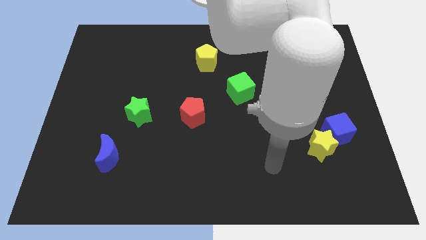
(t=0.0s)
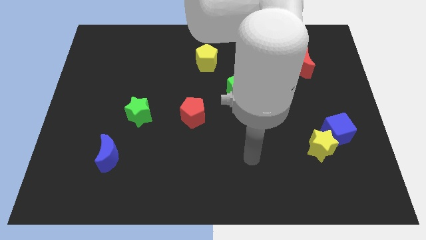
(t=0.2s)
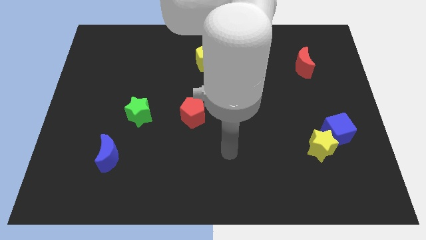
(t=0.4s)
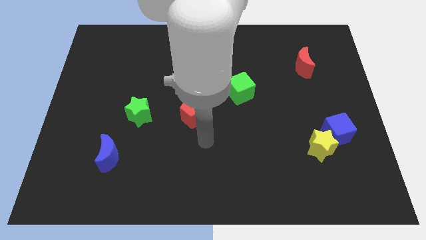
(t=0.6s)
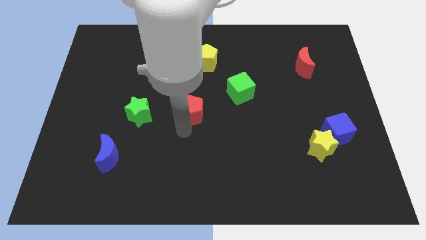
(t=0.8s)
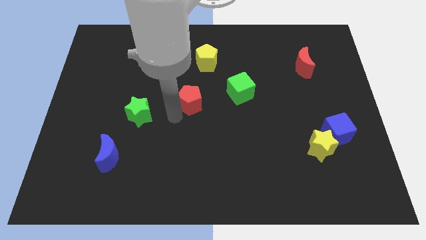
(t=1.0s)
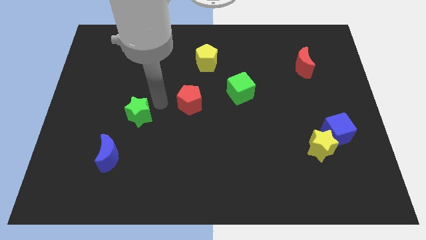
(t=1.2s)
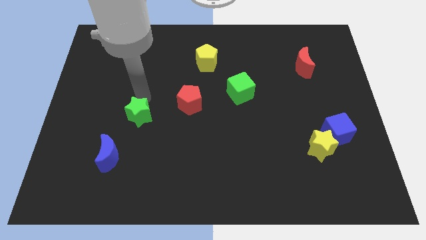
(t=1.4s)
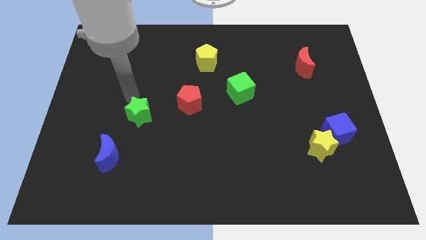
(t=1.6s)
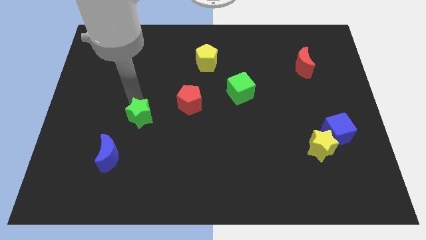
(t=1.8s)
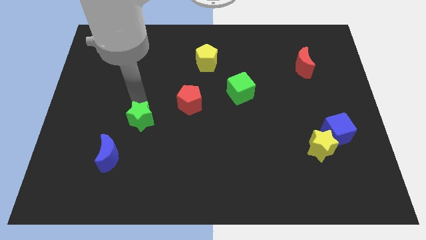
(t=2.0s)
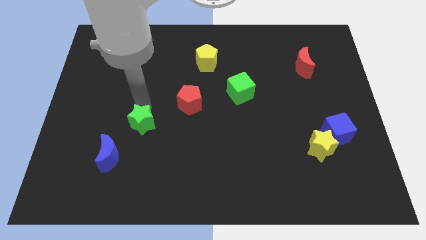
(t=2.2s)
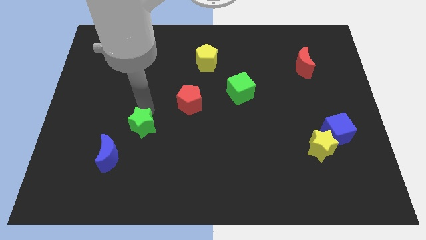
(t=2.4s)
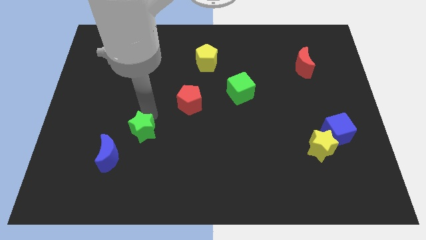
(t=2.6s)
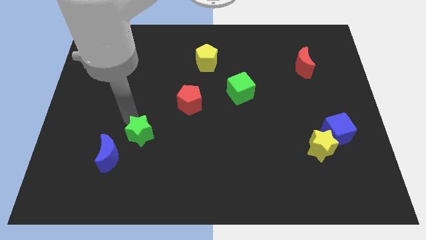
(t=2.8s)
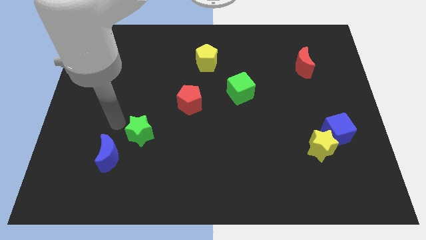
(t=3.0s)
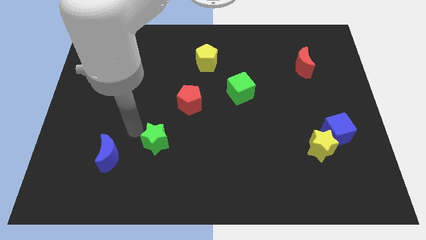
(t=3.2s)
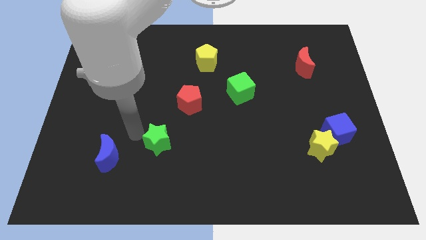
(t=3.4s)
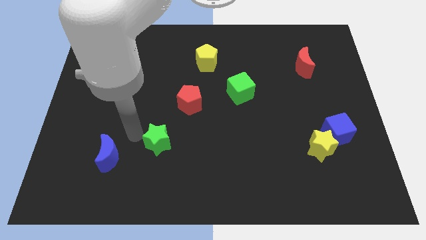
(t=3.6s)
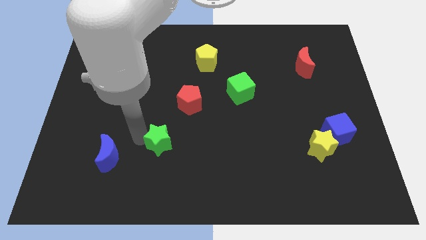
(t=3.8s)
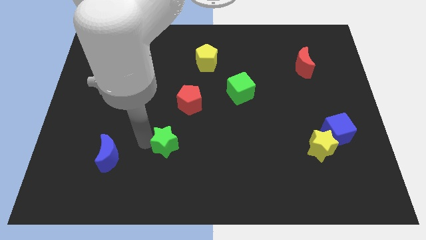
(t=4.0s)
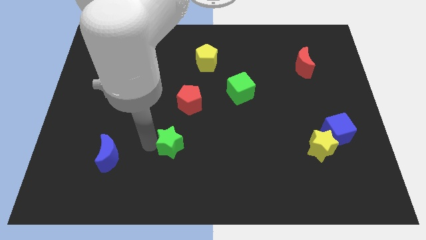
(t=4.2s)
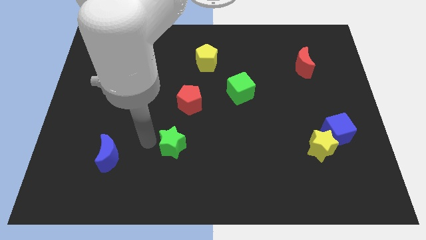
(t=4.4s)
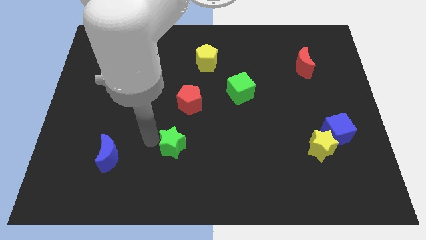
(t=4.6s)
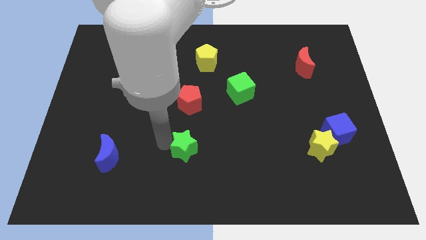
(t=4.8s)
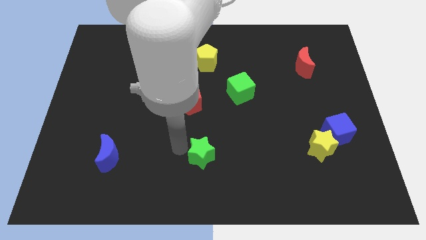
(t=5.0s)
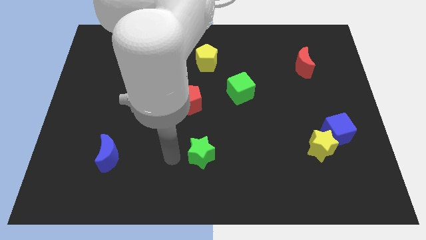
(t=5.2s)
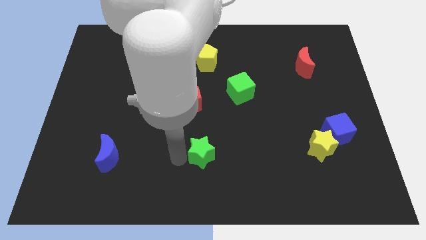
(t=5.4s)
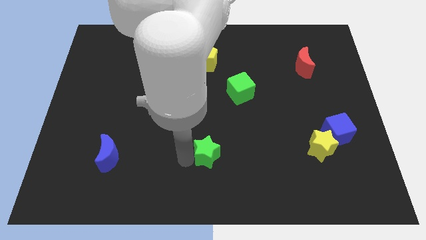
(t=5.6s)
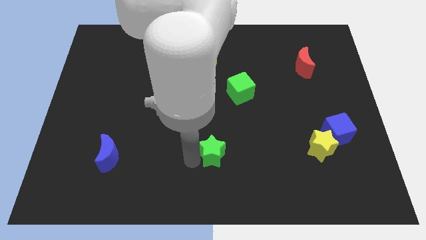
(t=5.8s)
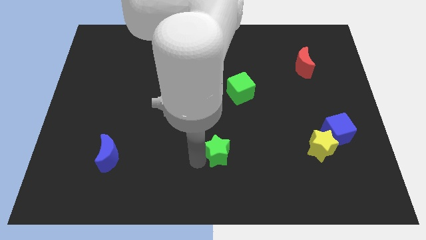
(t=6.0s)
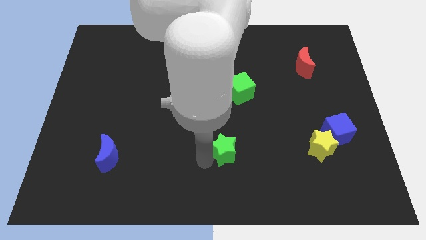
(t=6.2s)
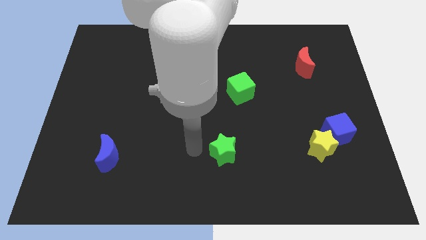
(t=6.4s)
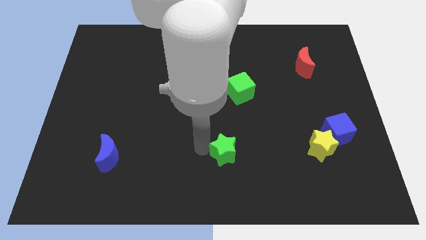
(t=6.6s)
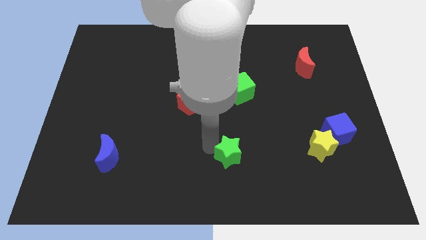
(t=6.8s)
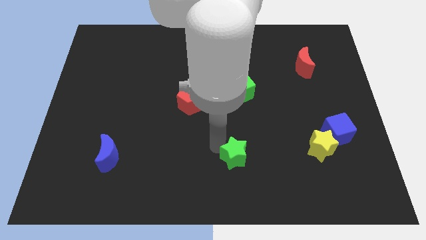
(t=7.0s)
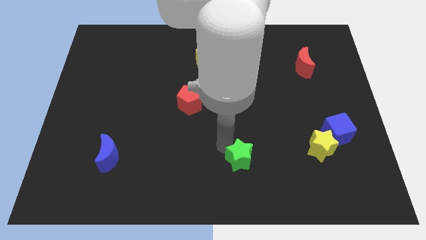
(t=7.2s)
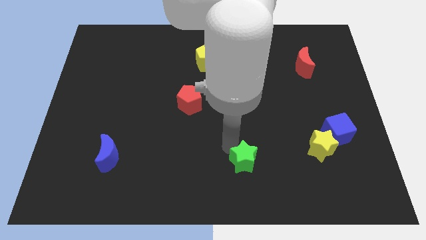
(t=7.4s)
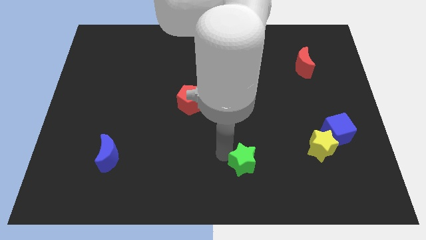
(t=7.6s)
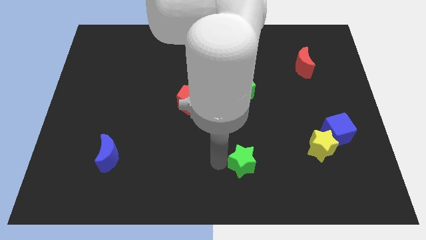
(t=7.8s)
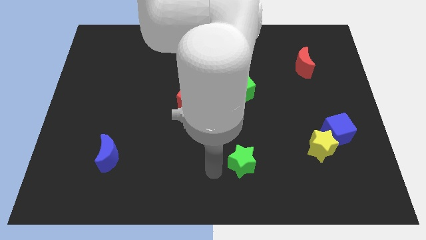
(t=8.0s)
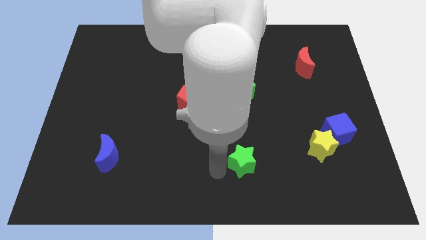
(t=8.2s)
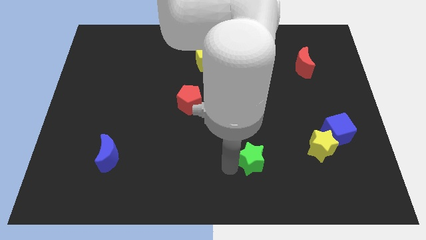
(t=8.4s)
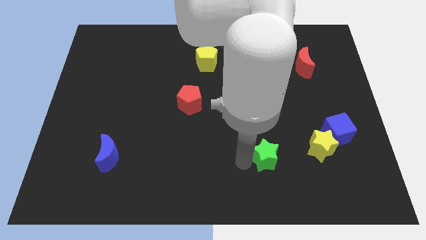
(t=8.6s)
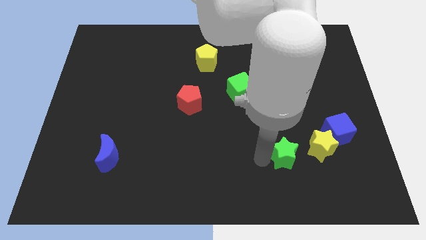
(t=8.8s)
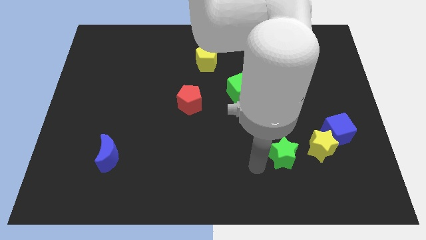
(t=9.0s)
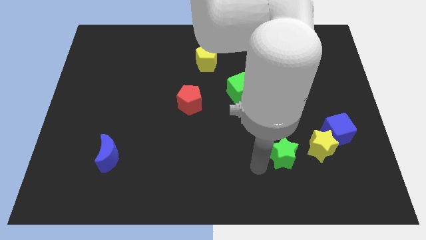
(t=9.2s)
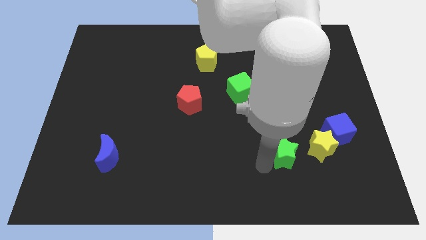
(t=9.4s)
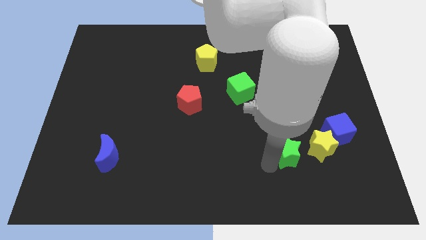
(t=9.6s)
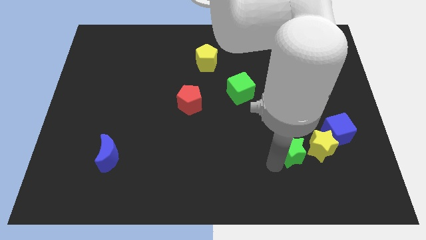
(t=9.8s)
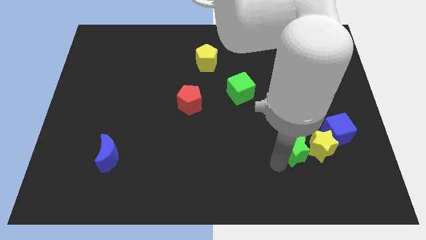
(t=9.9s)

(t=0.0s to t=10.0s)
push the green star towards the yellow star

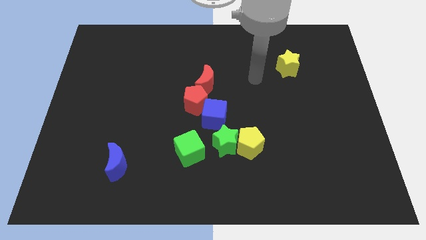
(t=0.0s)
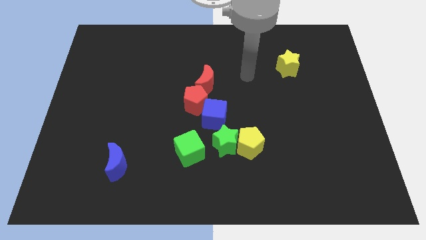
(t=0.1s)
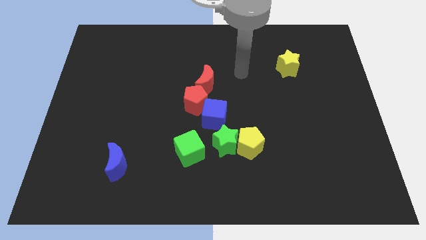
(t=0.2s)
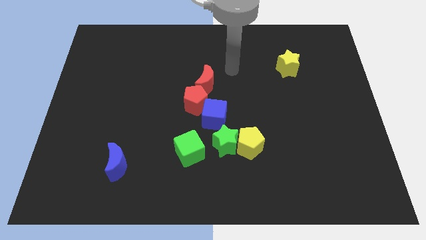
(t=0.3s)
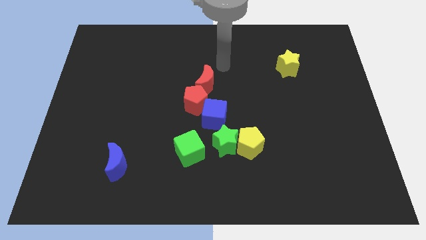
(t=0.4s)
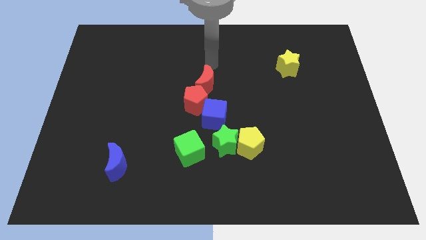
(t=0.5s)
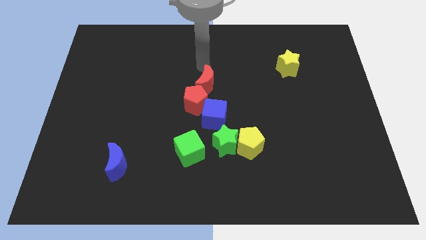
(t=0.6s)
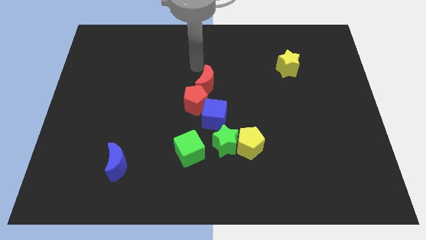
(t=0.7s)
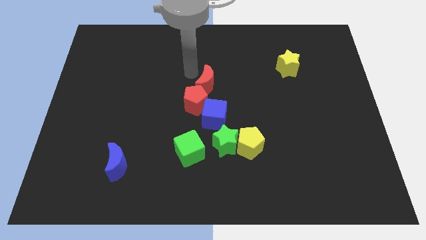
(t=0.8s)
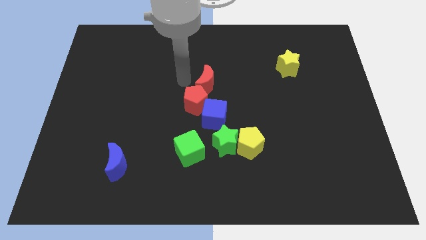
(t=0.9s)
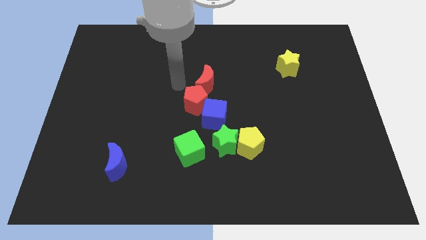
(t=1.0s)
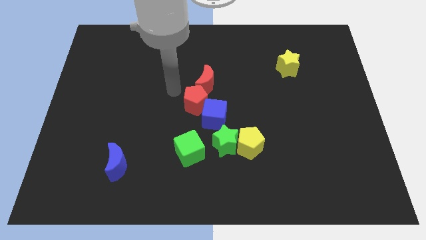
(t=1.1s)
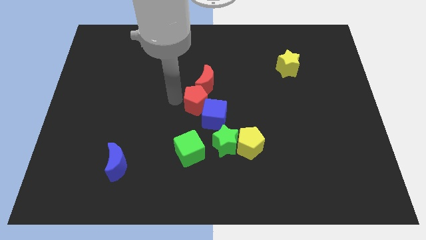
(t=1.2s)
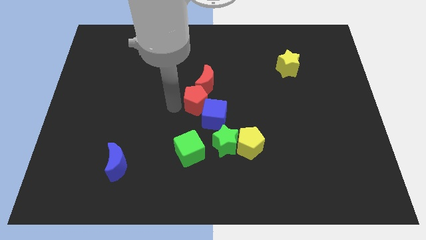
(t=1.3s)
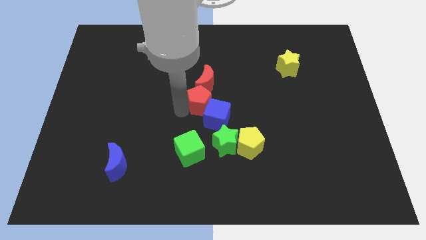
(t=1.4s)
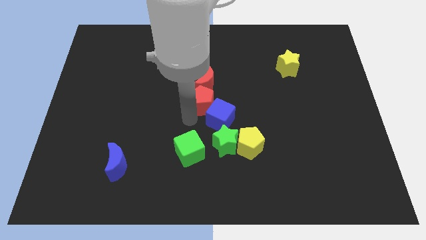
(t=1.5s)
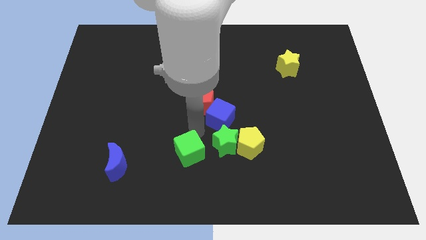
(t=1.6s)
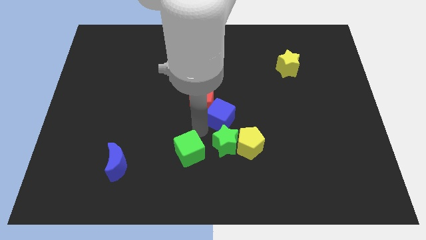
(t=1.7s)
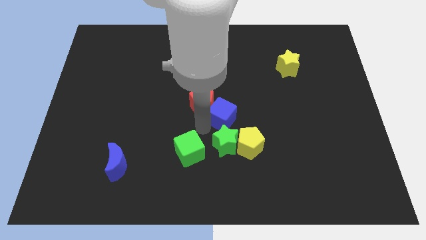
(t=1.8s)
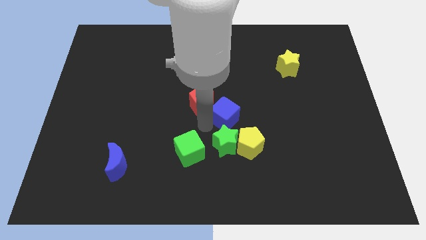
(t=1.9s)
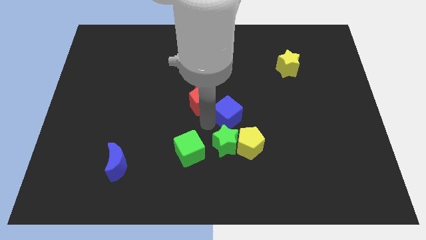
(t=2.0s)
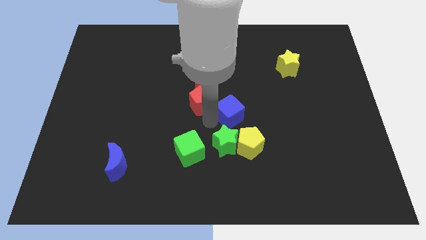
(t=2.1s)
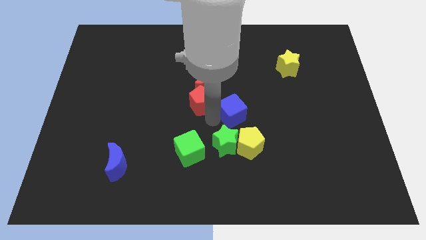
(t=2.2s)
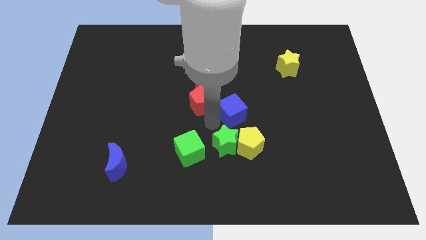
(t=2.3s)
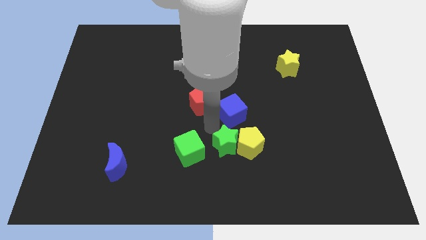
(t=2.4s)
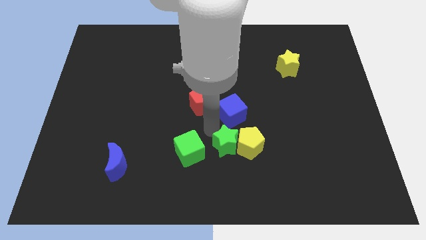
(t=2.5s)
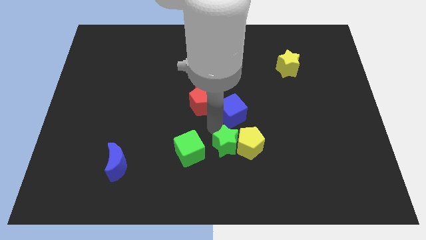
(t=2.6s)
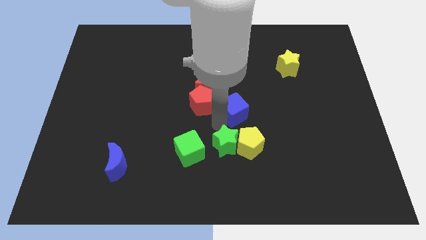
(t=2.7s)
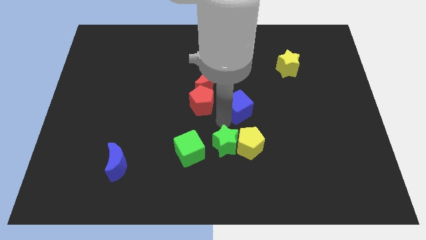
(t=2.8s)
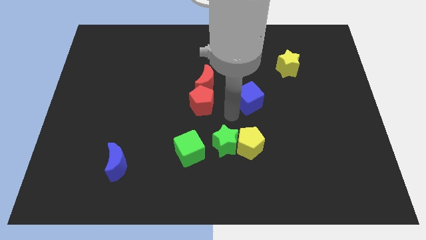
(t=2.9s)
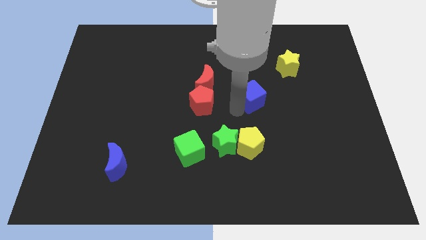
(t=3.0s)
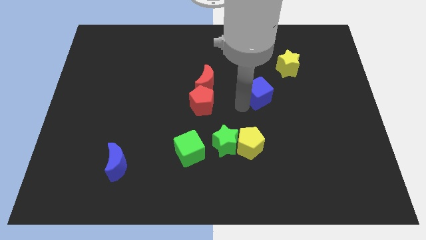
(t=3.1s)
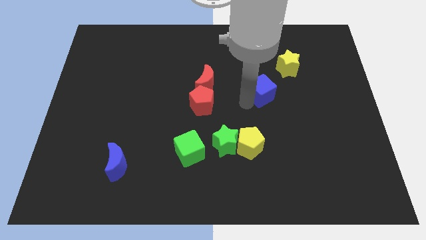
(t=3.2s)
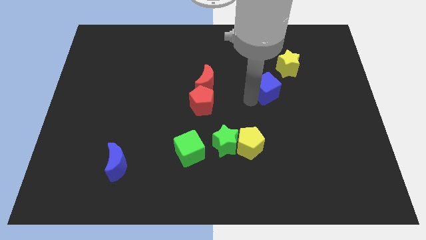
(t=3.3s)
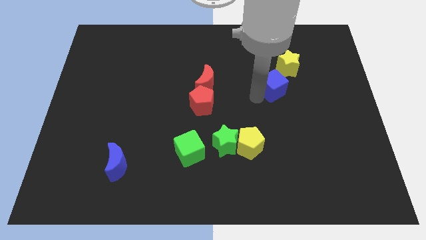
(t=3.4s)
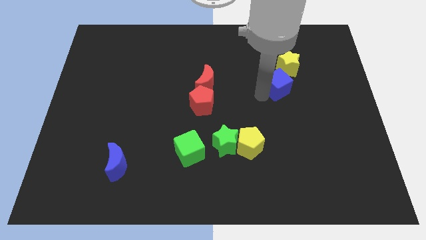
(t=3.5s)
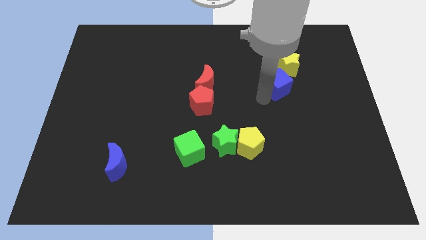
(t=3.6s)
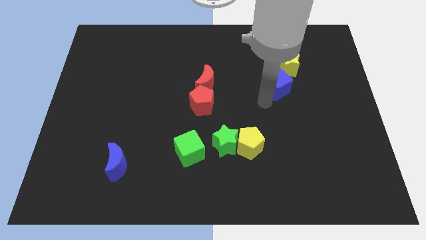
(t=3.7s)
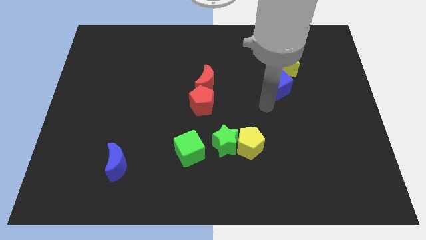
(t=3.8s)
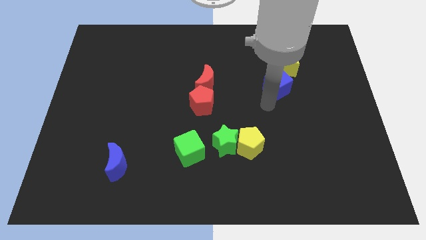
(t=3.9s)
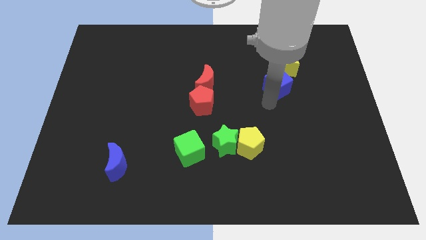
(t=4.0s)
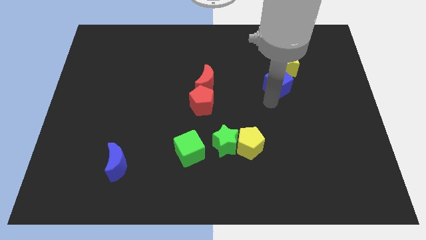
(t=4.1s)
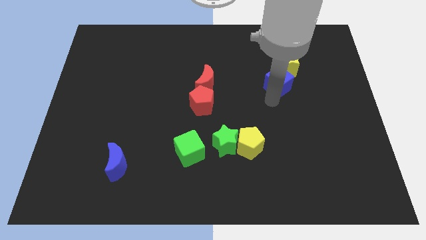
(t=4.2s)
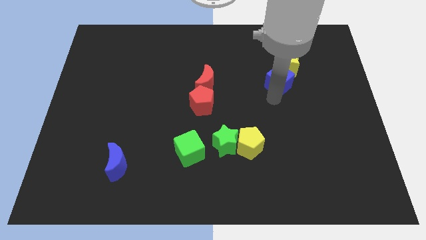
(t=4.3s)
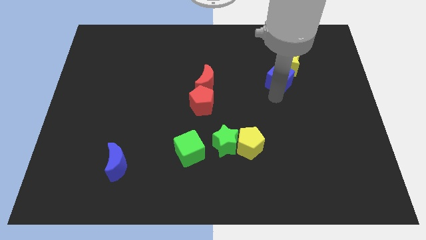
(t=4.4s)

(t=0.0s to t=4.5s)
move the blue cube close to the yellow star
